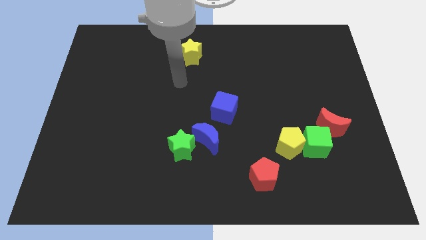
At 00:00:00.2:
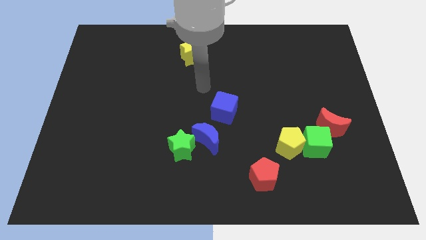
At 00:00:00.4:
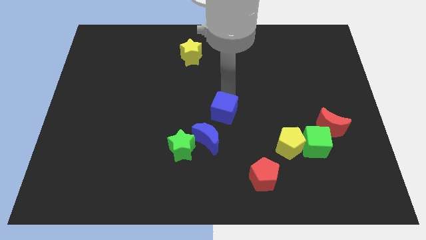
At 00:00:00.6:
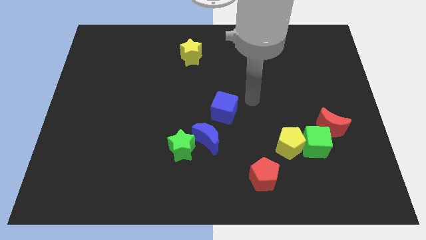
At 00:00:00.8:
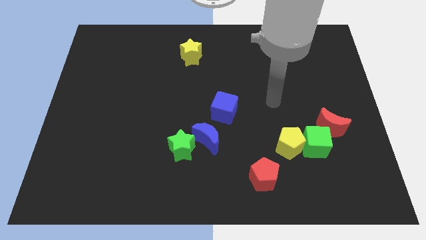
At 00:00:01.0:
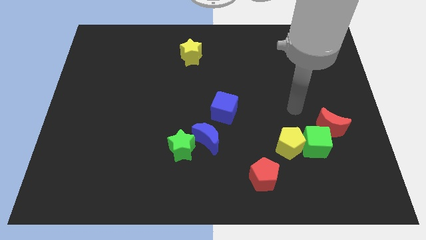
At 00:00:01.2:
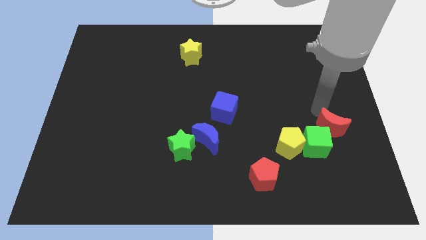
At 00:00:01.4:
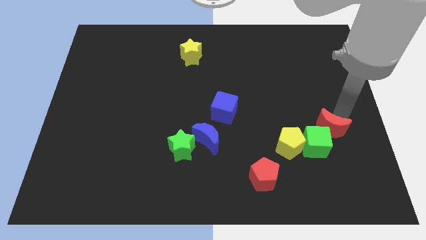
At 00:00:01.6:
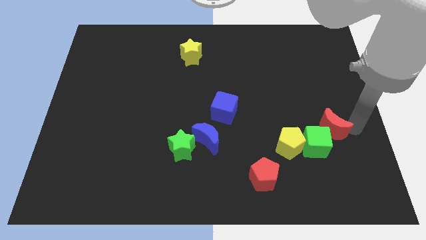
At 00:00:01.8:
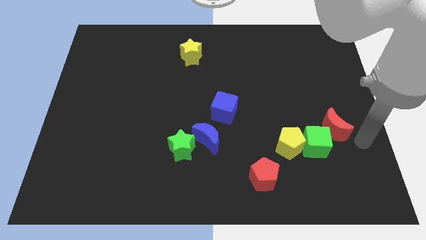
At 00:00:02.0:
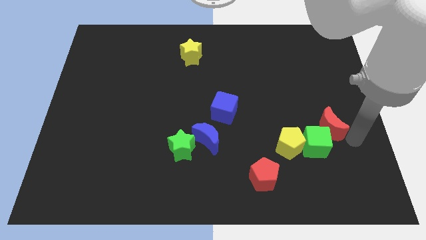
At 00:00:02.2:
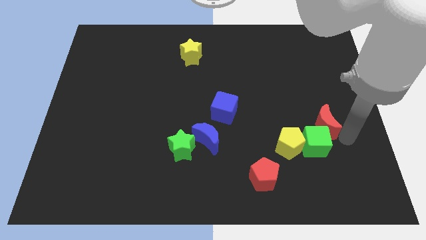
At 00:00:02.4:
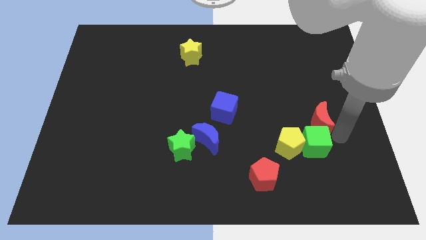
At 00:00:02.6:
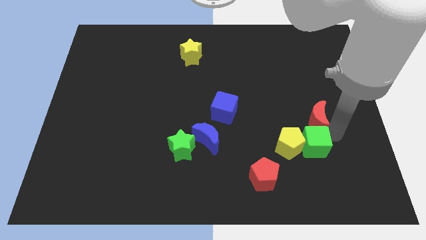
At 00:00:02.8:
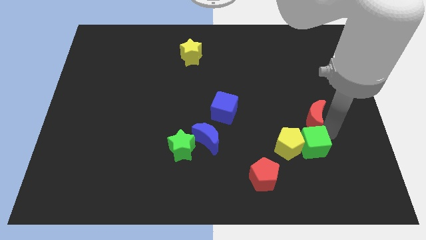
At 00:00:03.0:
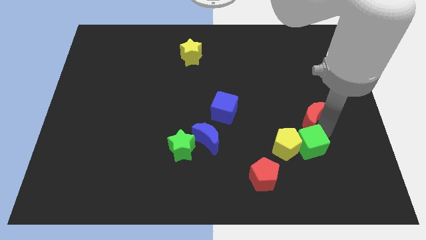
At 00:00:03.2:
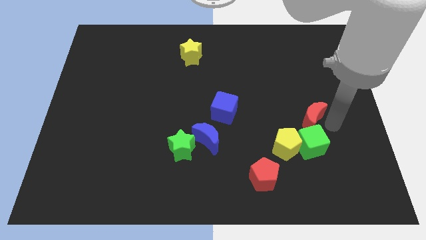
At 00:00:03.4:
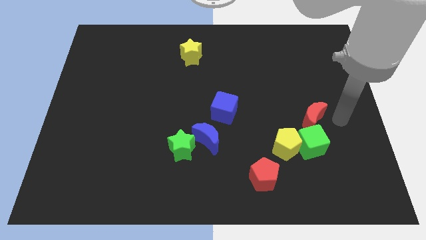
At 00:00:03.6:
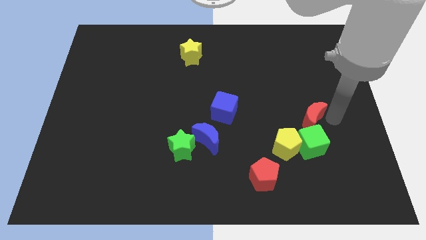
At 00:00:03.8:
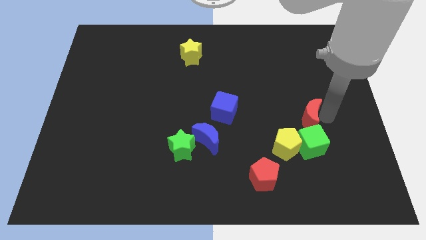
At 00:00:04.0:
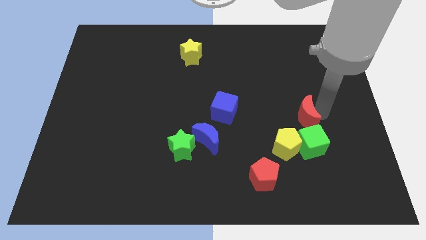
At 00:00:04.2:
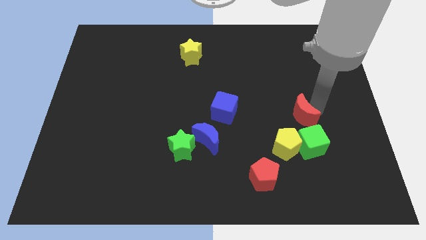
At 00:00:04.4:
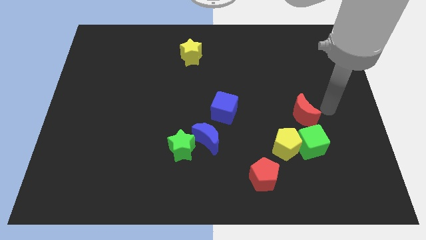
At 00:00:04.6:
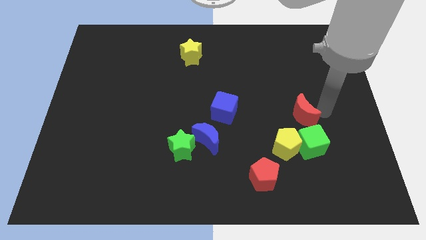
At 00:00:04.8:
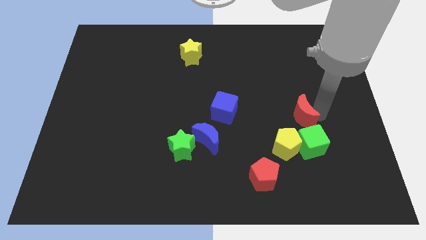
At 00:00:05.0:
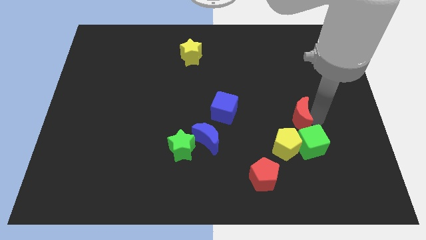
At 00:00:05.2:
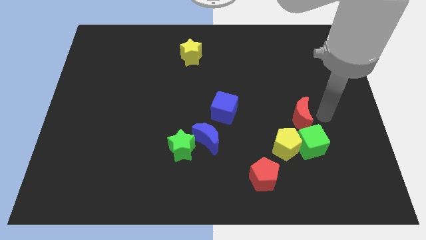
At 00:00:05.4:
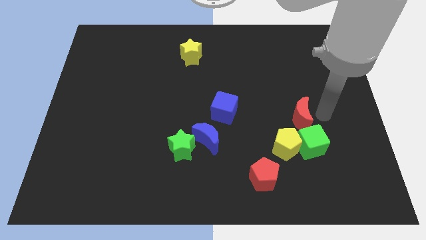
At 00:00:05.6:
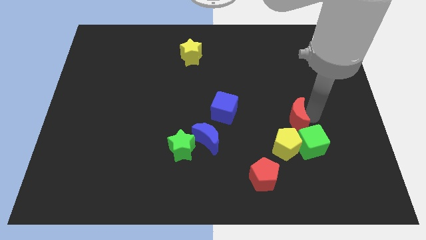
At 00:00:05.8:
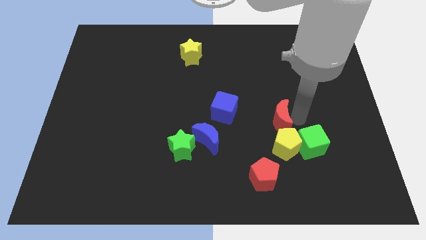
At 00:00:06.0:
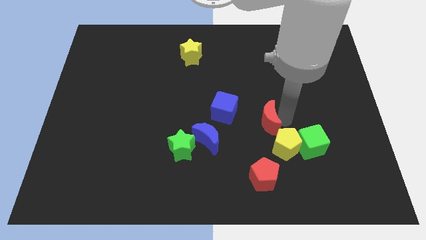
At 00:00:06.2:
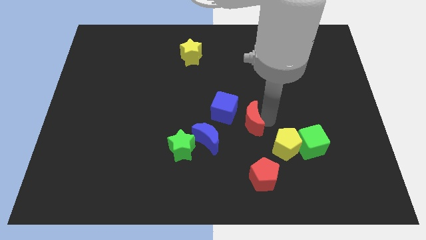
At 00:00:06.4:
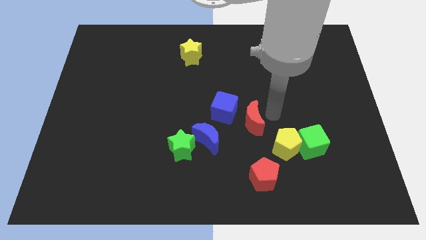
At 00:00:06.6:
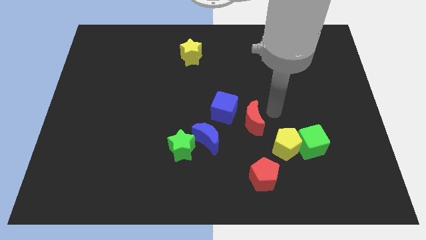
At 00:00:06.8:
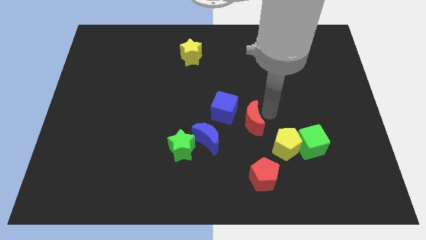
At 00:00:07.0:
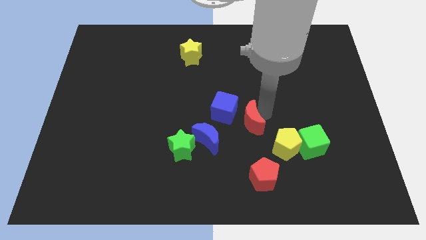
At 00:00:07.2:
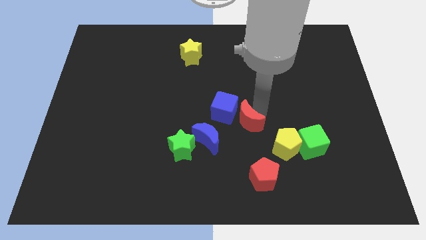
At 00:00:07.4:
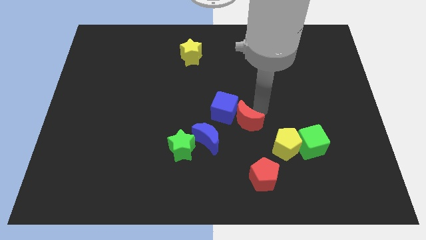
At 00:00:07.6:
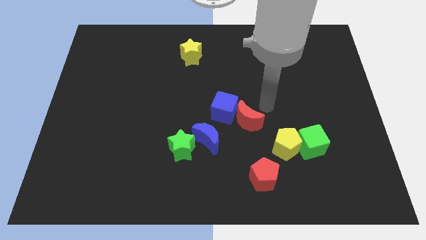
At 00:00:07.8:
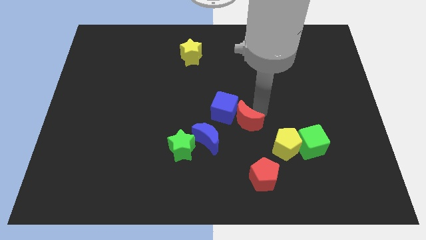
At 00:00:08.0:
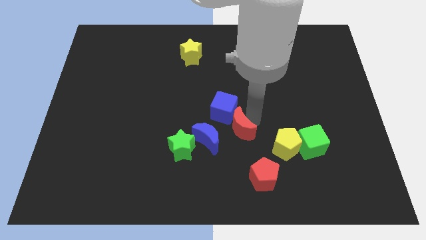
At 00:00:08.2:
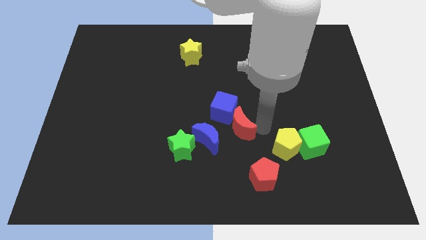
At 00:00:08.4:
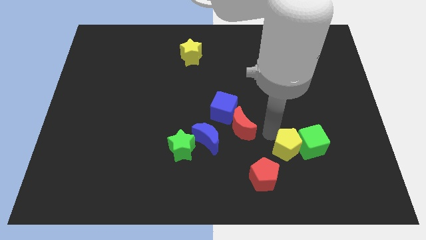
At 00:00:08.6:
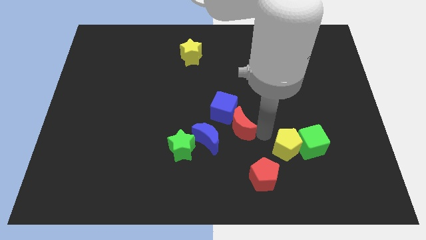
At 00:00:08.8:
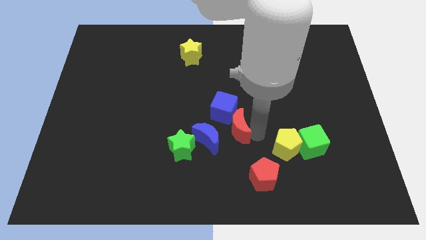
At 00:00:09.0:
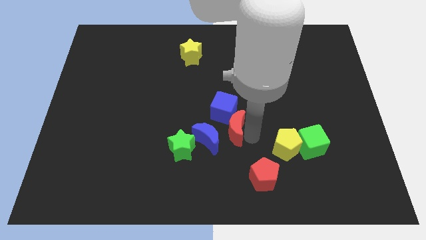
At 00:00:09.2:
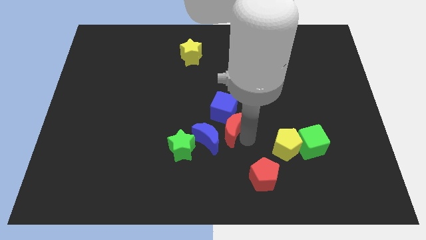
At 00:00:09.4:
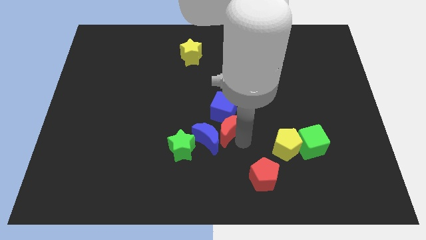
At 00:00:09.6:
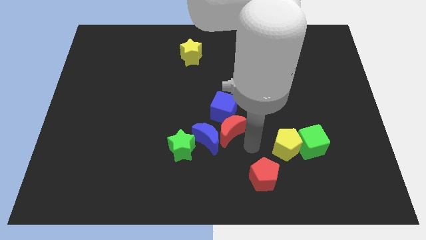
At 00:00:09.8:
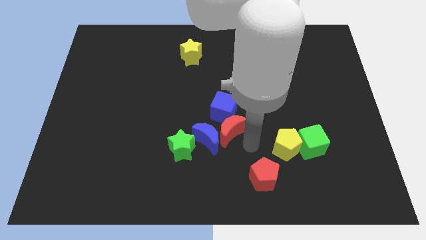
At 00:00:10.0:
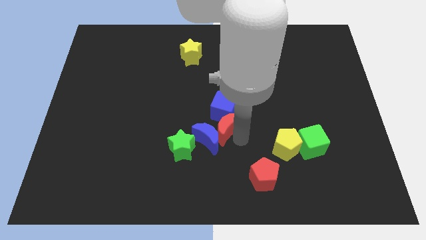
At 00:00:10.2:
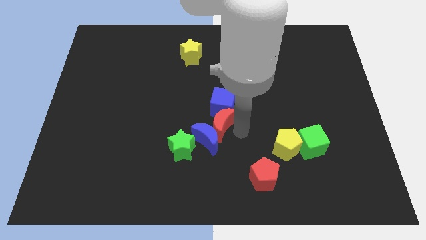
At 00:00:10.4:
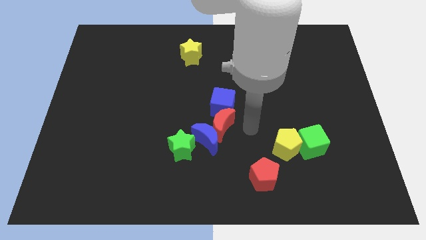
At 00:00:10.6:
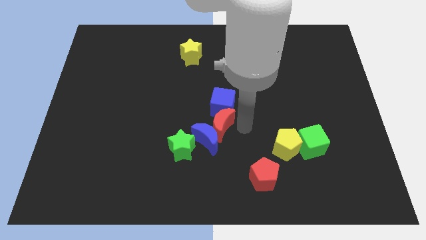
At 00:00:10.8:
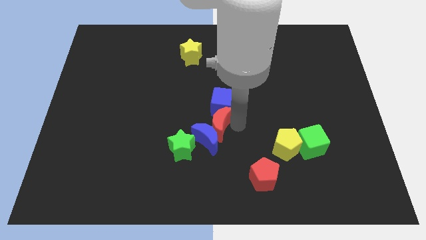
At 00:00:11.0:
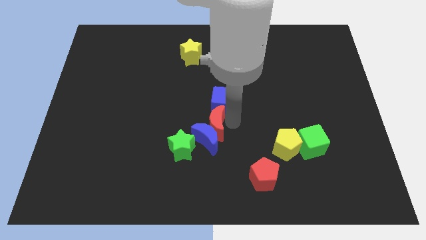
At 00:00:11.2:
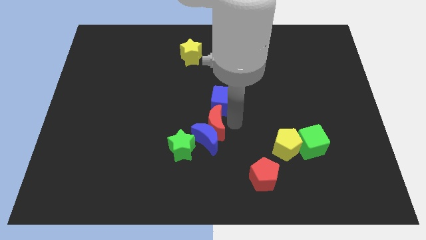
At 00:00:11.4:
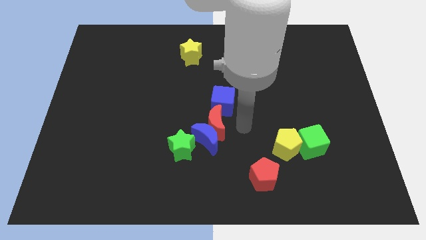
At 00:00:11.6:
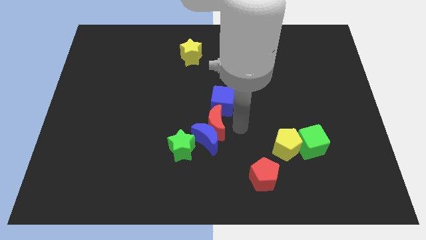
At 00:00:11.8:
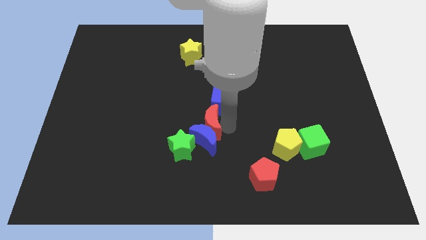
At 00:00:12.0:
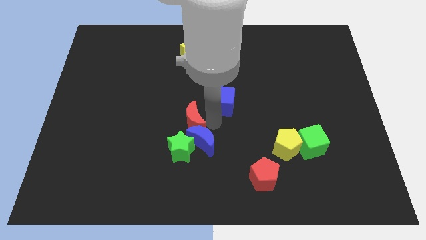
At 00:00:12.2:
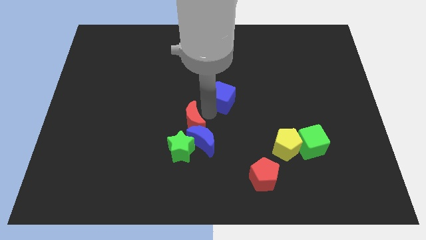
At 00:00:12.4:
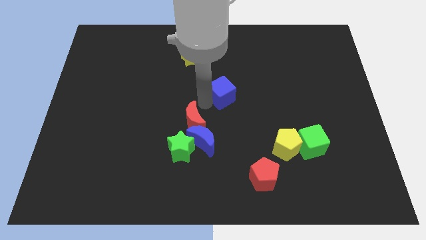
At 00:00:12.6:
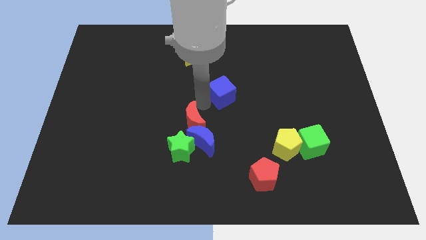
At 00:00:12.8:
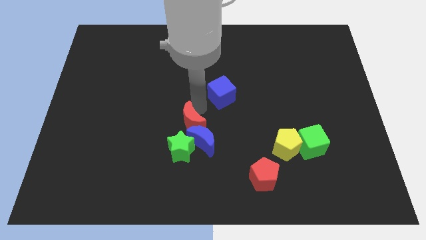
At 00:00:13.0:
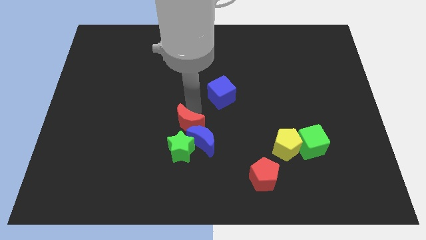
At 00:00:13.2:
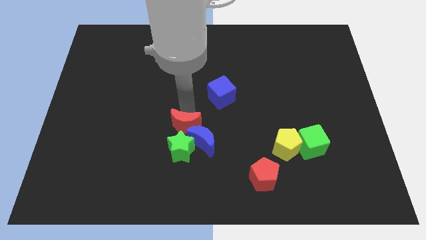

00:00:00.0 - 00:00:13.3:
push the red moon close to the green star

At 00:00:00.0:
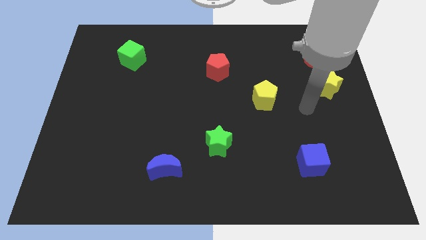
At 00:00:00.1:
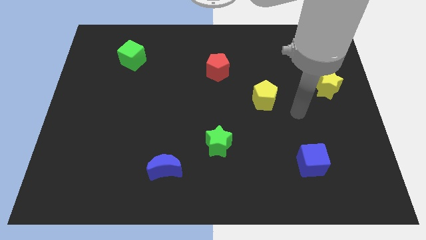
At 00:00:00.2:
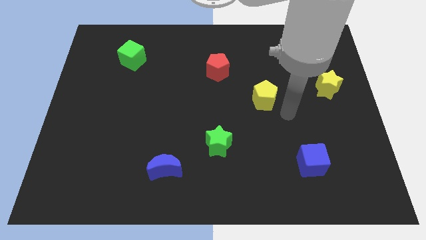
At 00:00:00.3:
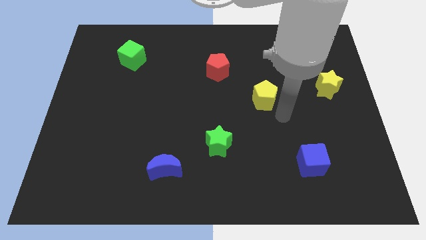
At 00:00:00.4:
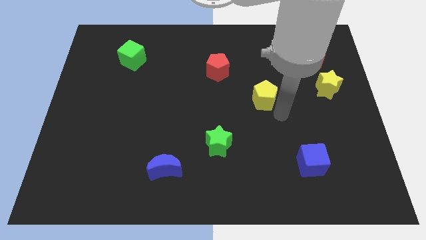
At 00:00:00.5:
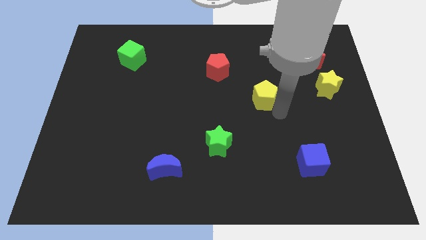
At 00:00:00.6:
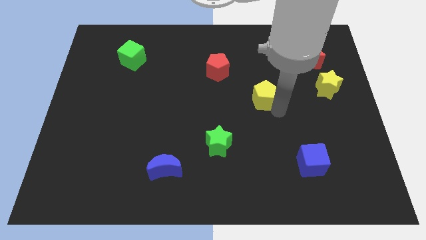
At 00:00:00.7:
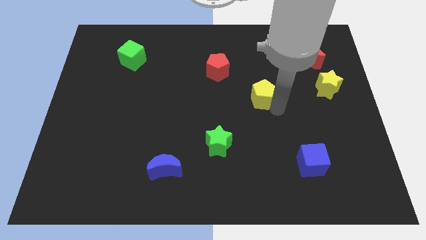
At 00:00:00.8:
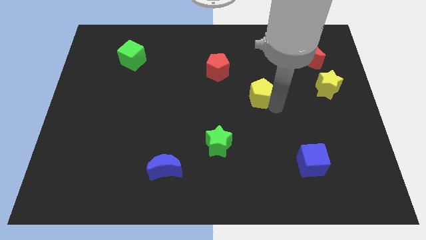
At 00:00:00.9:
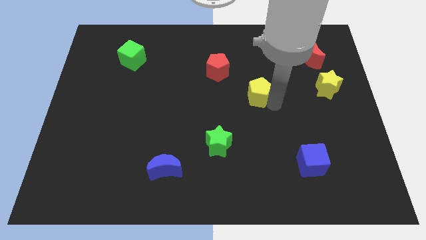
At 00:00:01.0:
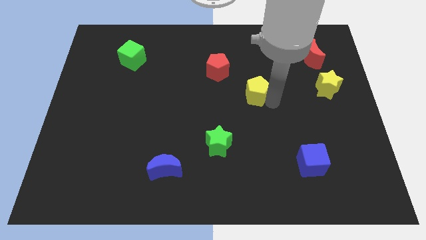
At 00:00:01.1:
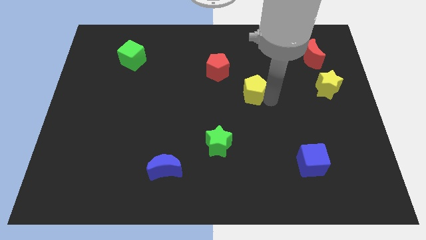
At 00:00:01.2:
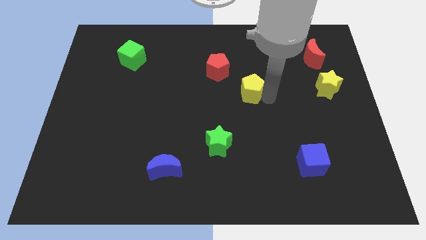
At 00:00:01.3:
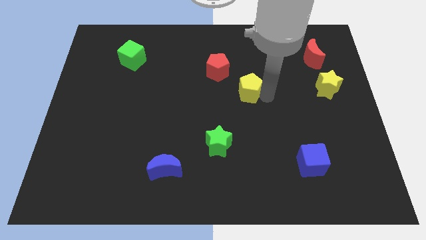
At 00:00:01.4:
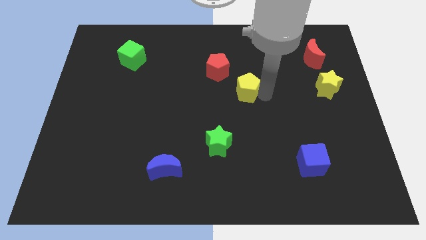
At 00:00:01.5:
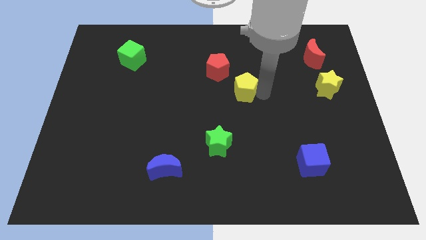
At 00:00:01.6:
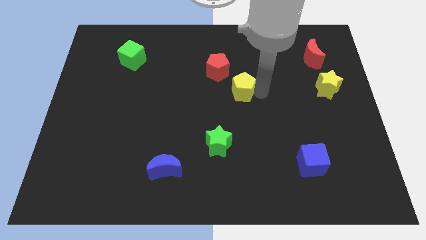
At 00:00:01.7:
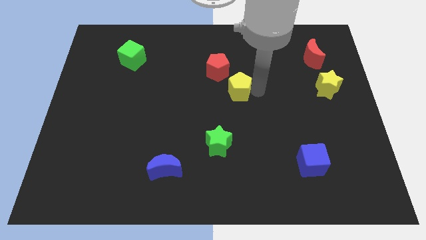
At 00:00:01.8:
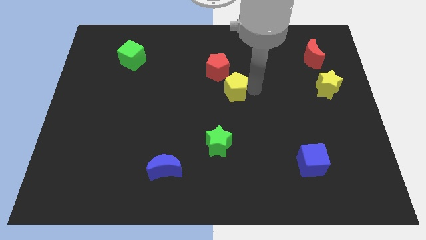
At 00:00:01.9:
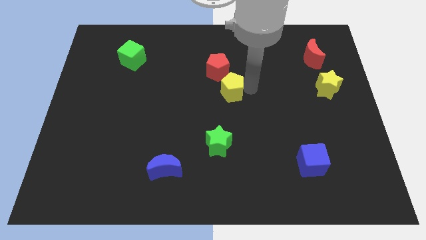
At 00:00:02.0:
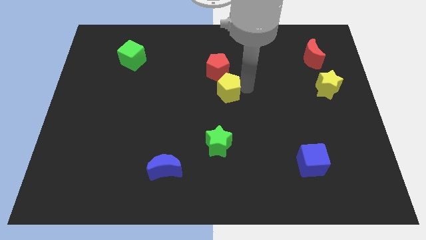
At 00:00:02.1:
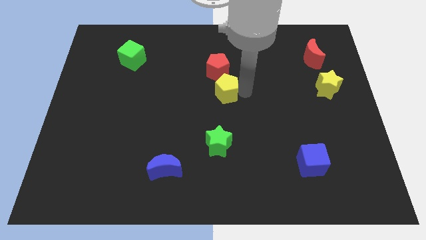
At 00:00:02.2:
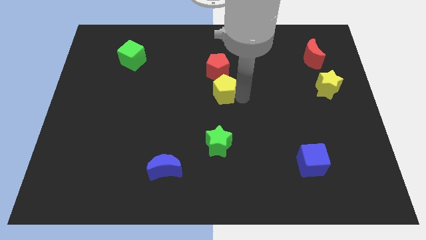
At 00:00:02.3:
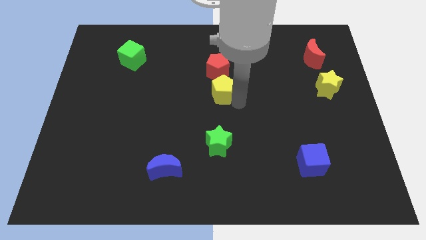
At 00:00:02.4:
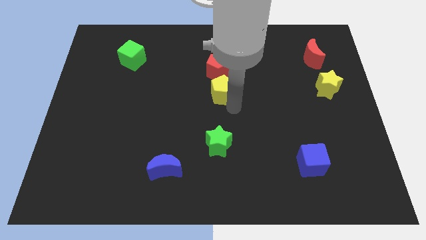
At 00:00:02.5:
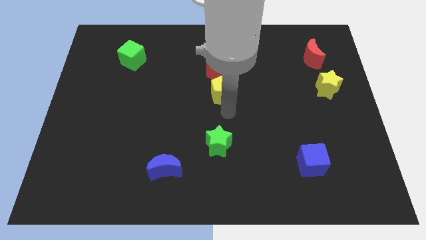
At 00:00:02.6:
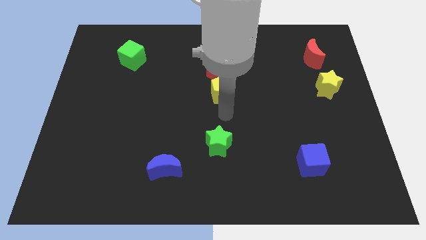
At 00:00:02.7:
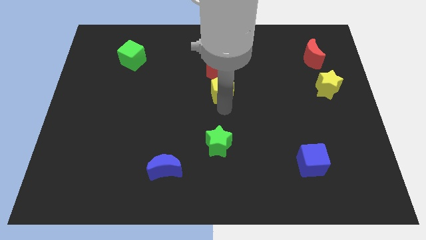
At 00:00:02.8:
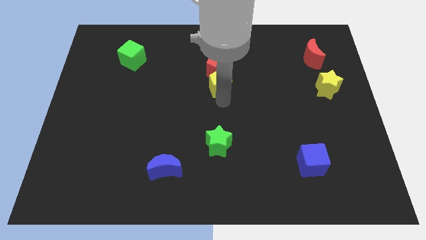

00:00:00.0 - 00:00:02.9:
push the yellow pentagon close to the red pentagon
